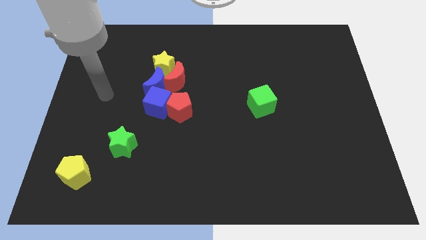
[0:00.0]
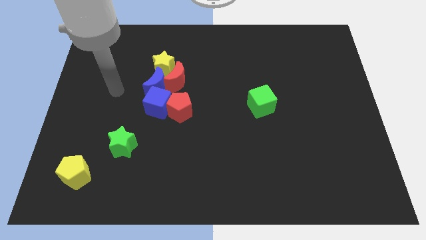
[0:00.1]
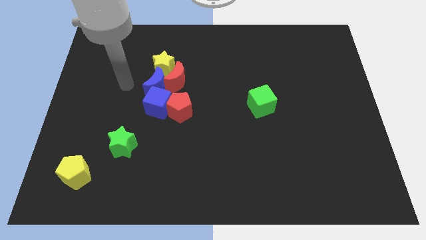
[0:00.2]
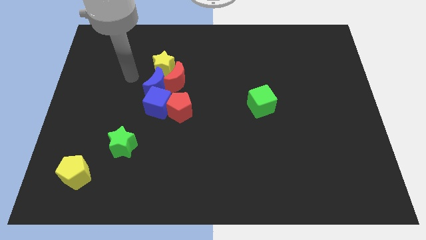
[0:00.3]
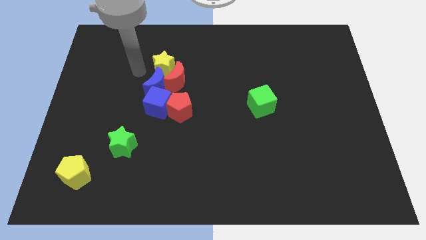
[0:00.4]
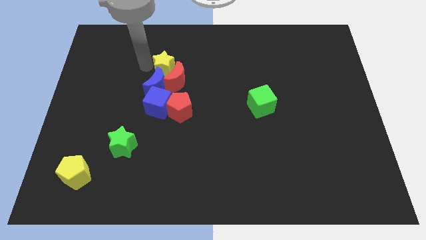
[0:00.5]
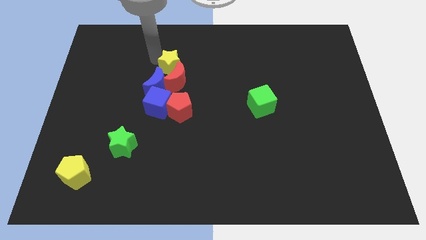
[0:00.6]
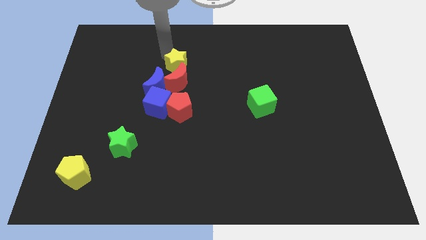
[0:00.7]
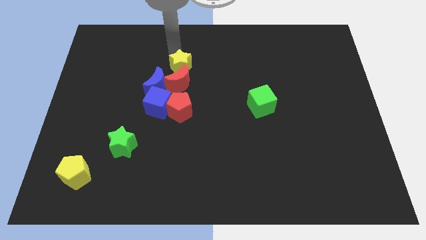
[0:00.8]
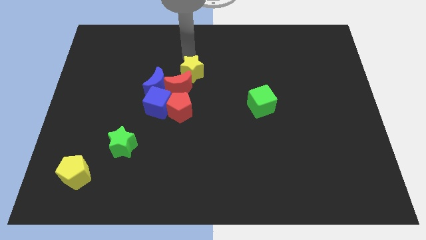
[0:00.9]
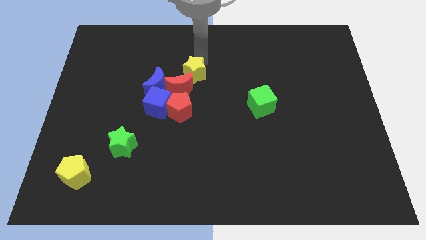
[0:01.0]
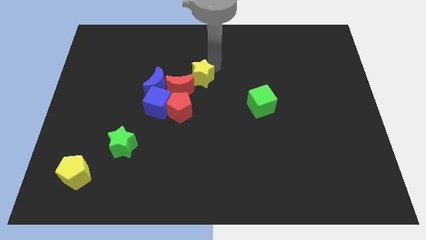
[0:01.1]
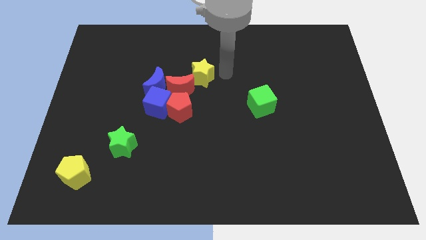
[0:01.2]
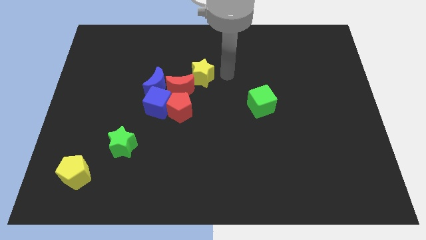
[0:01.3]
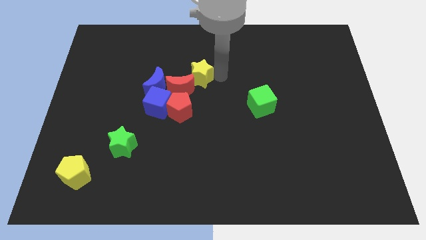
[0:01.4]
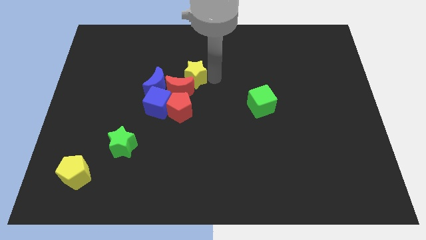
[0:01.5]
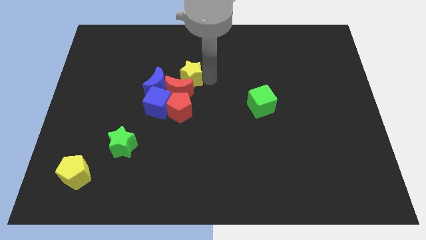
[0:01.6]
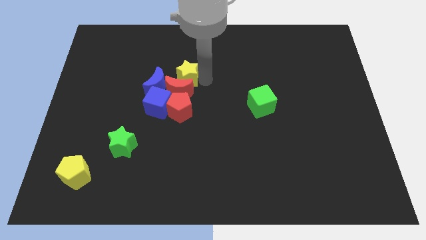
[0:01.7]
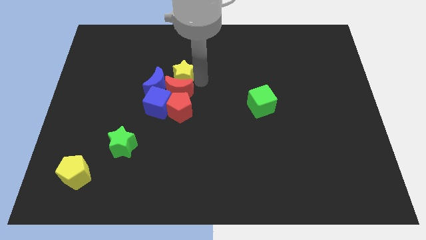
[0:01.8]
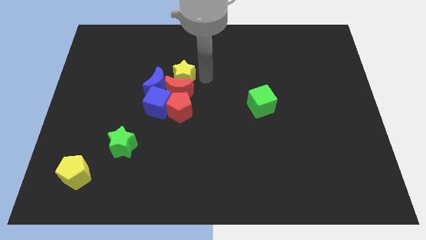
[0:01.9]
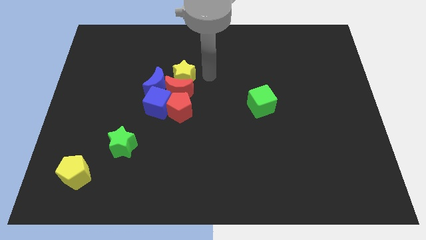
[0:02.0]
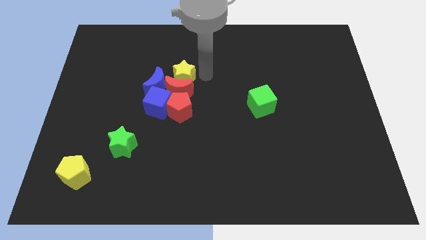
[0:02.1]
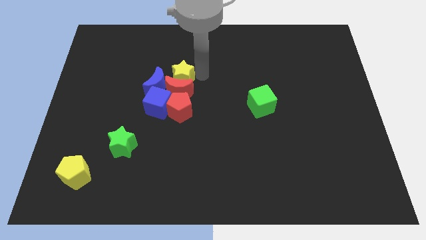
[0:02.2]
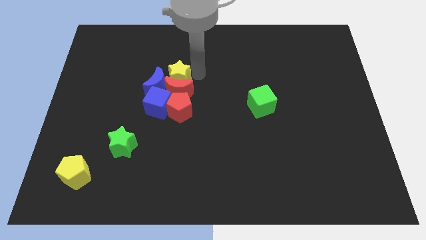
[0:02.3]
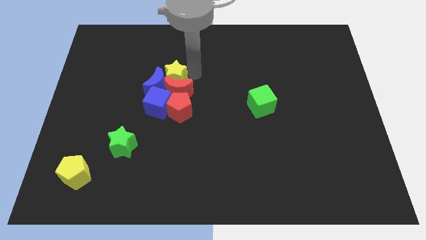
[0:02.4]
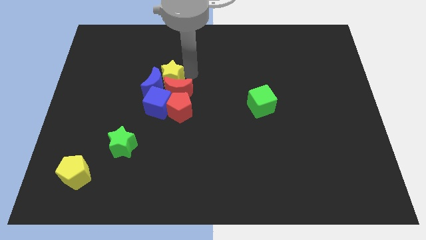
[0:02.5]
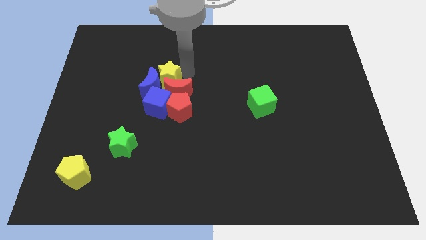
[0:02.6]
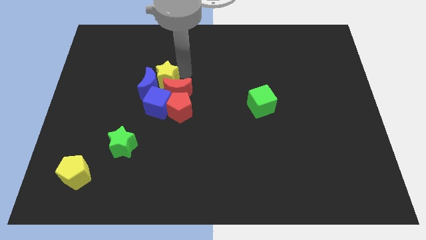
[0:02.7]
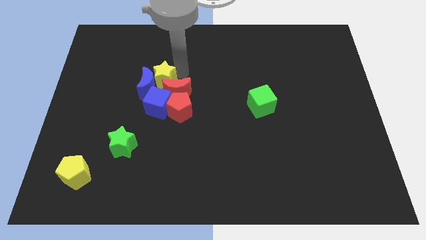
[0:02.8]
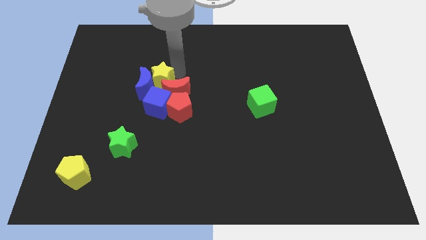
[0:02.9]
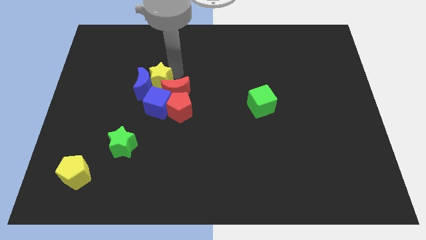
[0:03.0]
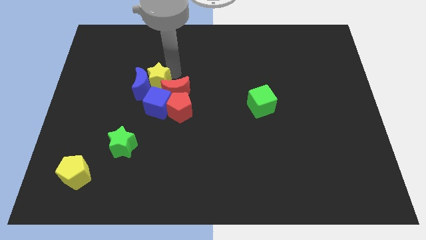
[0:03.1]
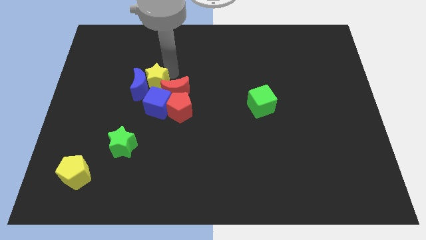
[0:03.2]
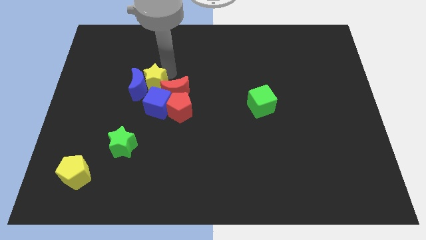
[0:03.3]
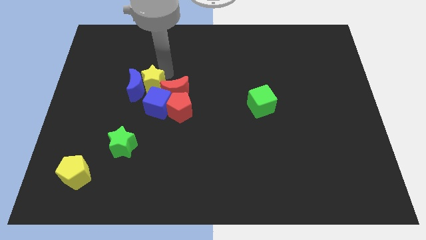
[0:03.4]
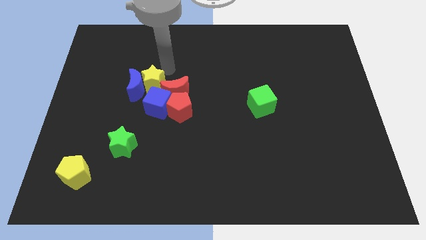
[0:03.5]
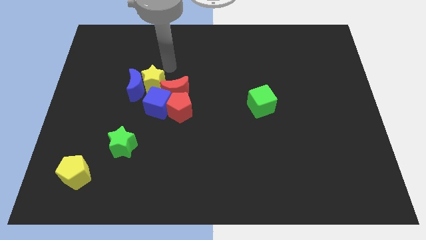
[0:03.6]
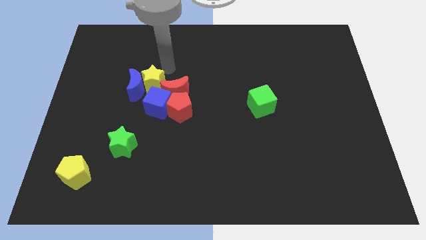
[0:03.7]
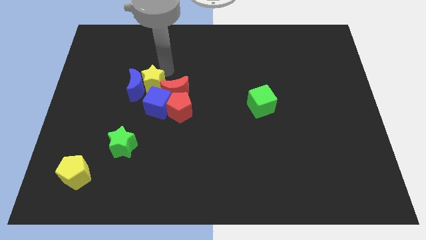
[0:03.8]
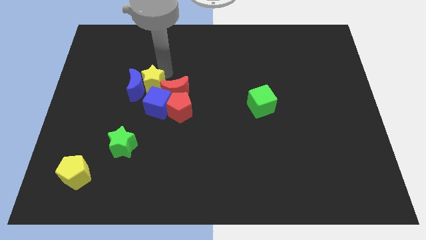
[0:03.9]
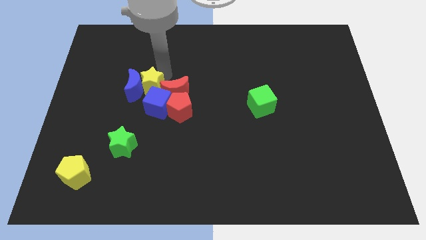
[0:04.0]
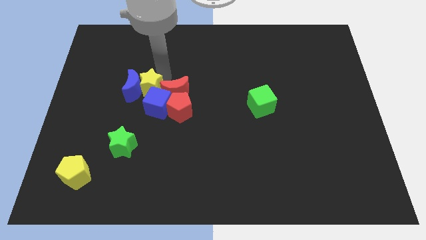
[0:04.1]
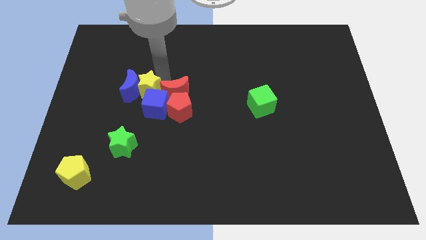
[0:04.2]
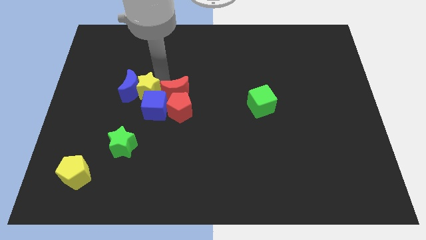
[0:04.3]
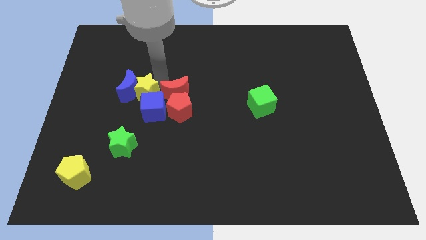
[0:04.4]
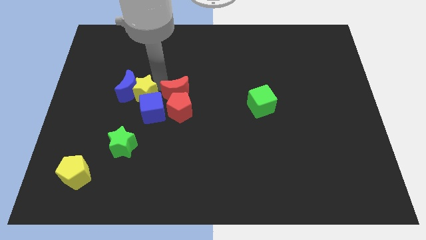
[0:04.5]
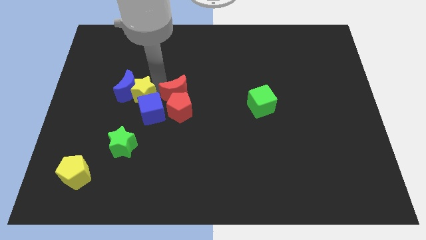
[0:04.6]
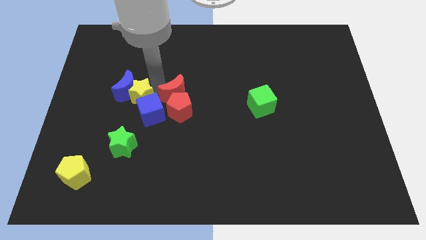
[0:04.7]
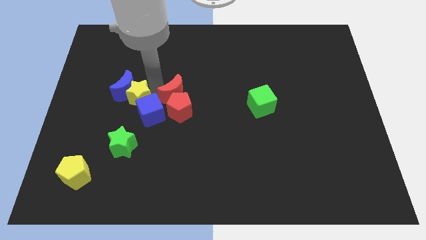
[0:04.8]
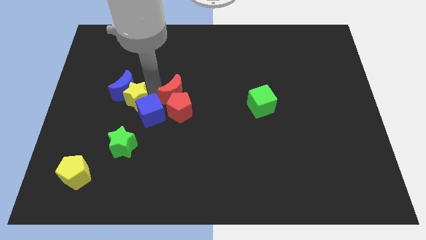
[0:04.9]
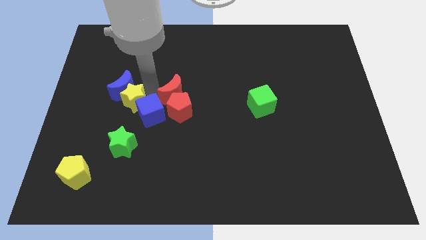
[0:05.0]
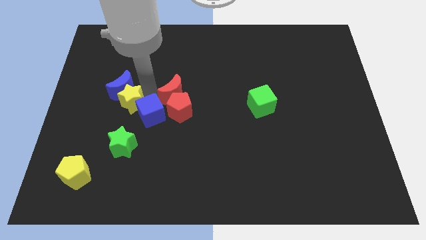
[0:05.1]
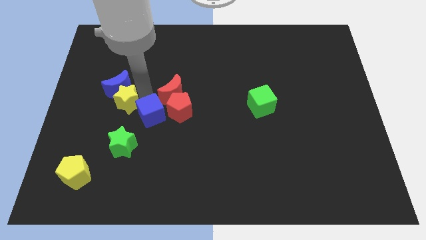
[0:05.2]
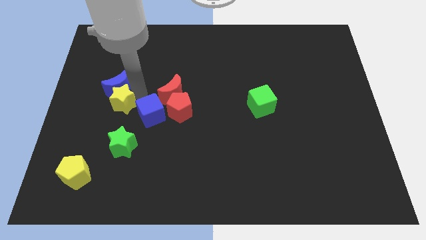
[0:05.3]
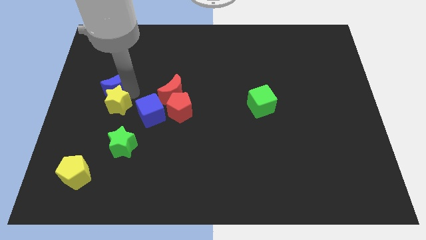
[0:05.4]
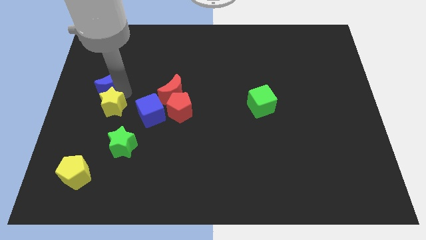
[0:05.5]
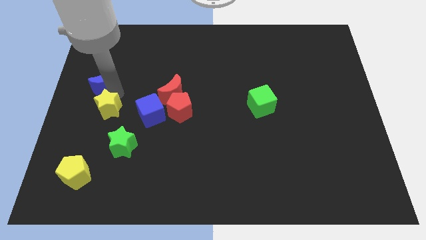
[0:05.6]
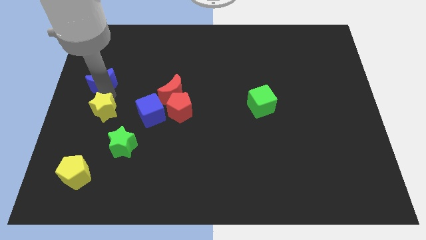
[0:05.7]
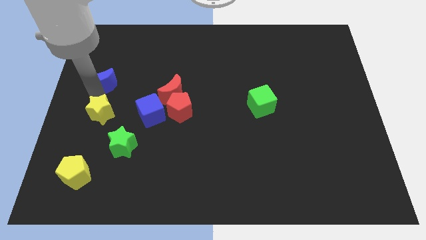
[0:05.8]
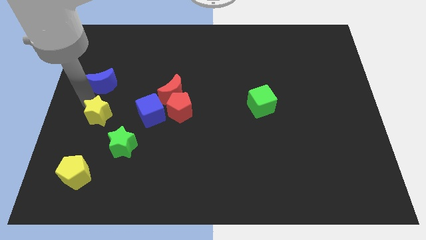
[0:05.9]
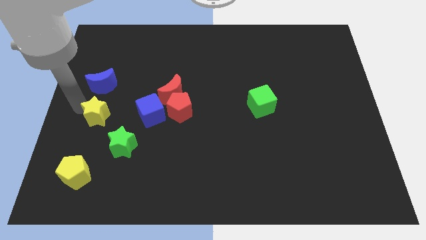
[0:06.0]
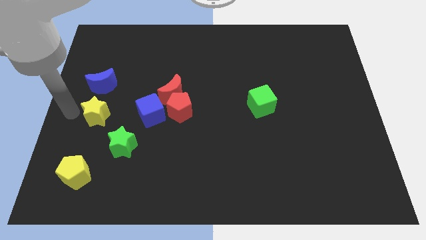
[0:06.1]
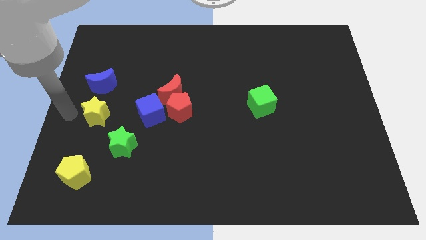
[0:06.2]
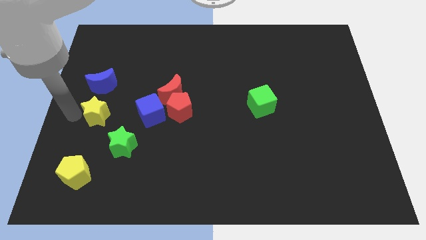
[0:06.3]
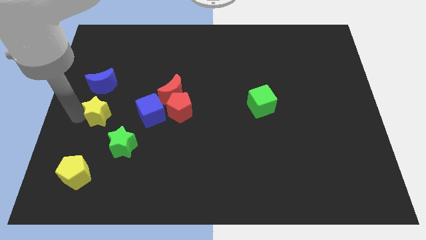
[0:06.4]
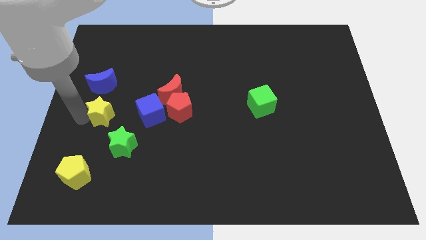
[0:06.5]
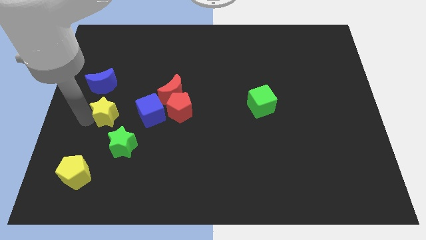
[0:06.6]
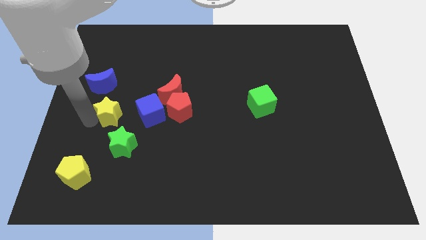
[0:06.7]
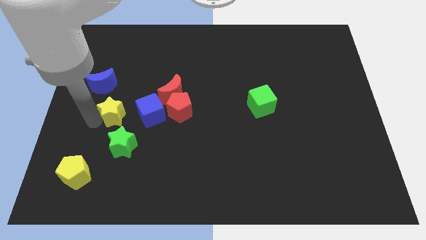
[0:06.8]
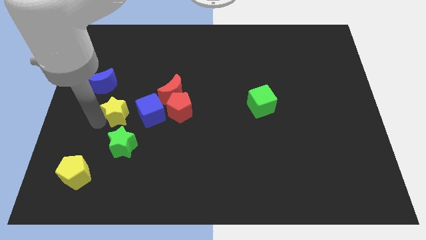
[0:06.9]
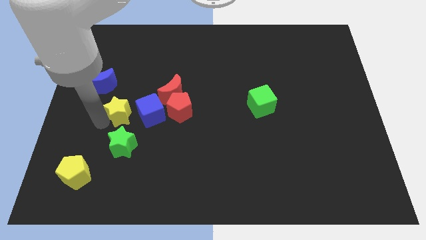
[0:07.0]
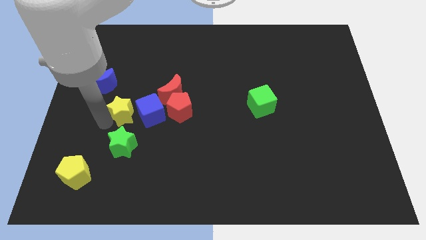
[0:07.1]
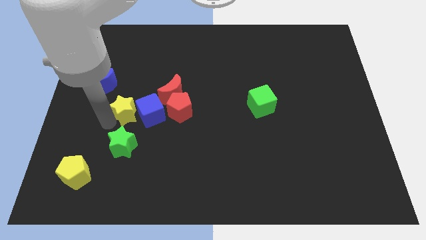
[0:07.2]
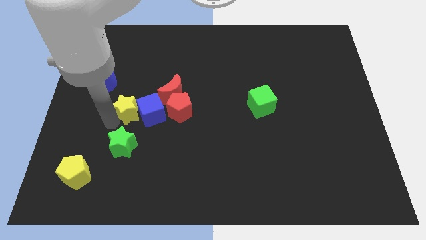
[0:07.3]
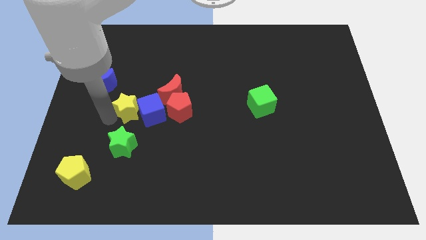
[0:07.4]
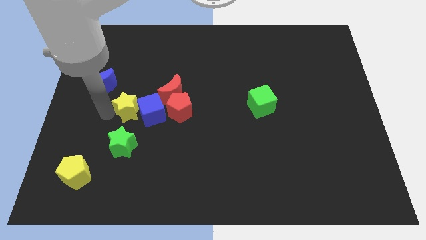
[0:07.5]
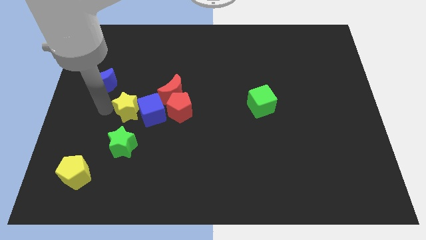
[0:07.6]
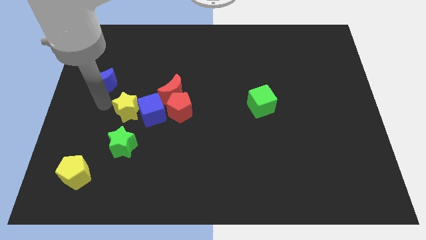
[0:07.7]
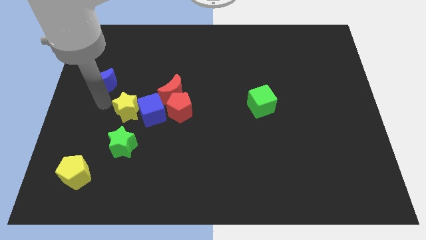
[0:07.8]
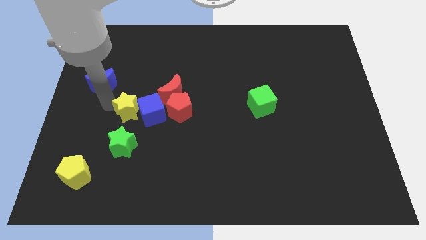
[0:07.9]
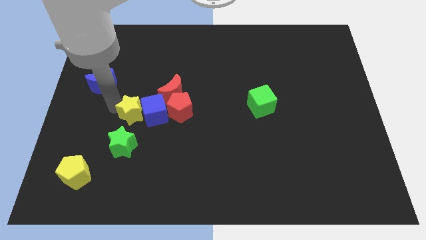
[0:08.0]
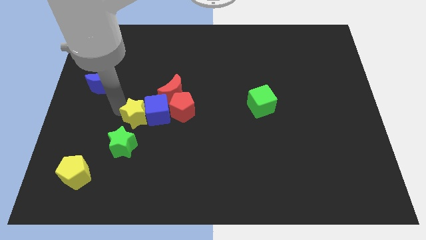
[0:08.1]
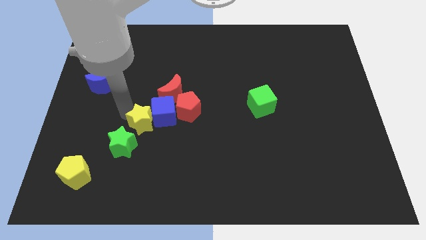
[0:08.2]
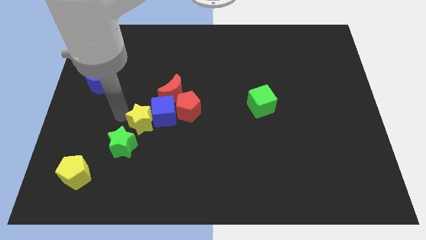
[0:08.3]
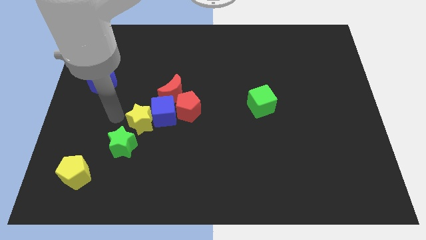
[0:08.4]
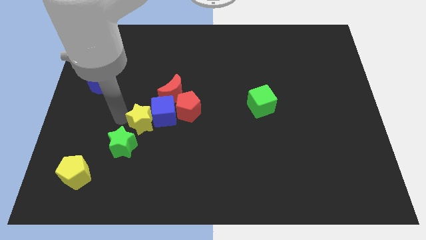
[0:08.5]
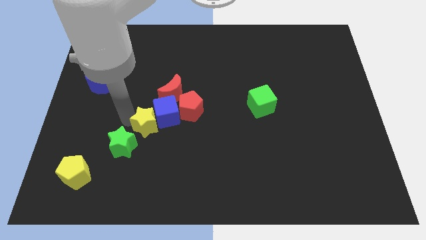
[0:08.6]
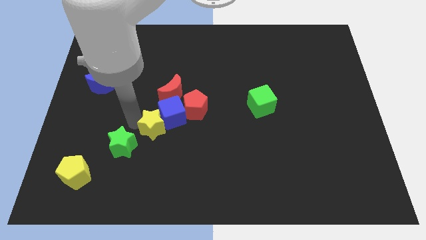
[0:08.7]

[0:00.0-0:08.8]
push the yellow star to the bottom of the red moon
